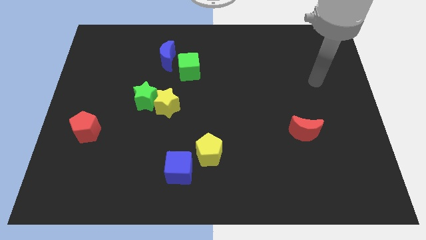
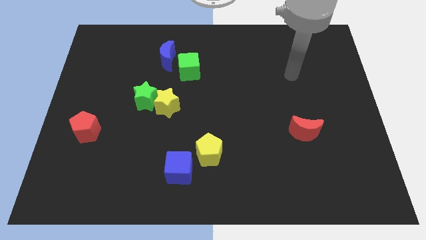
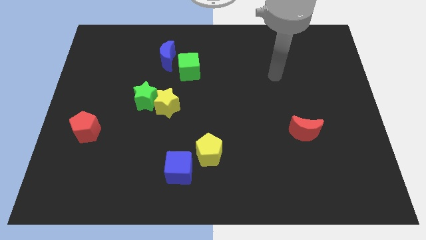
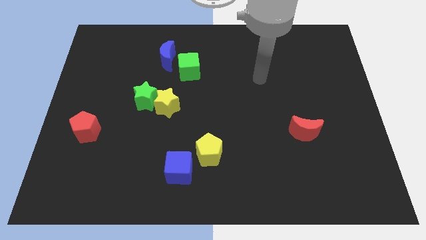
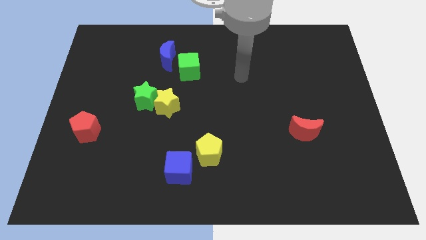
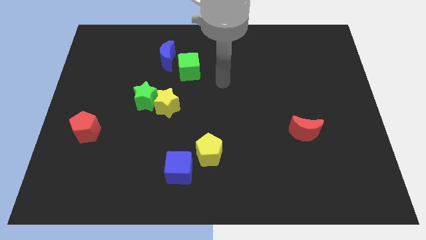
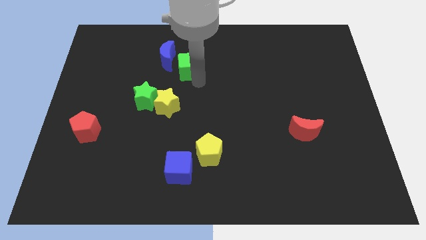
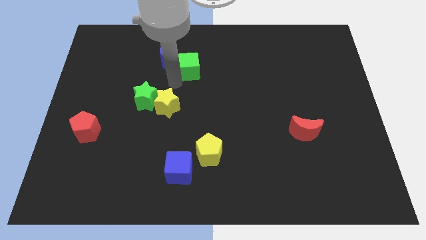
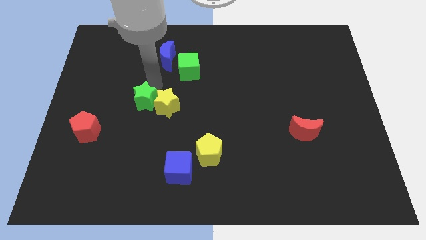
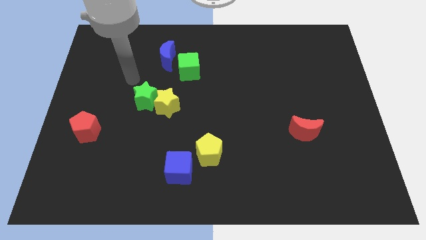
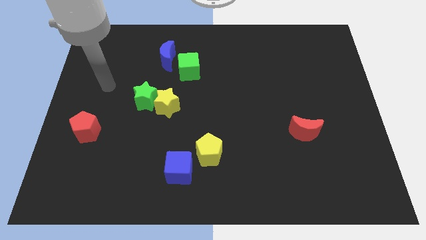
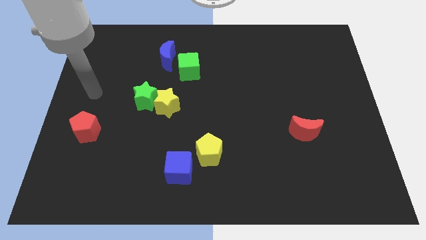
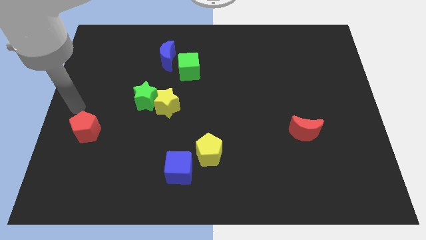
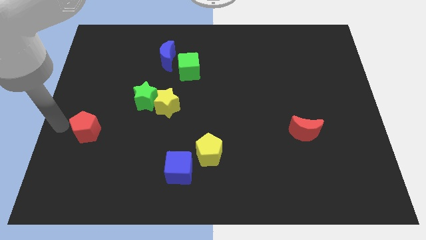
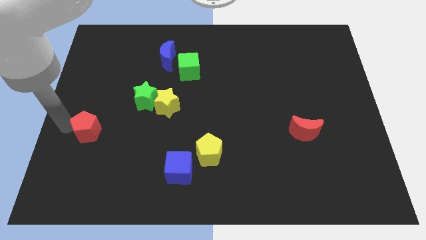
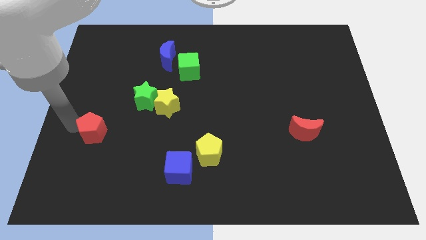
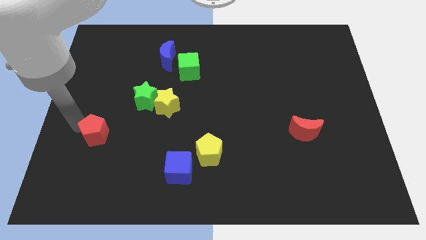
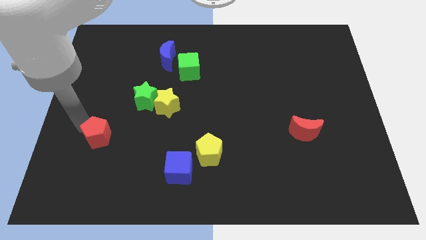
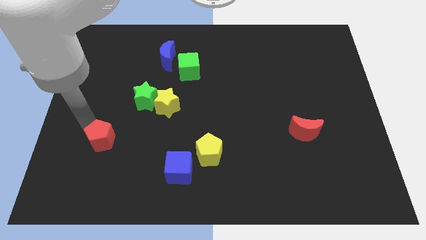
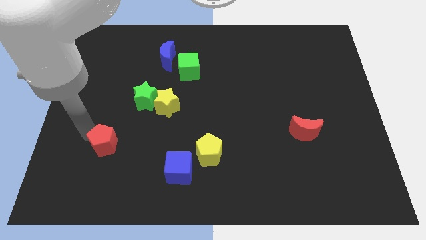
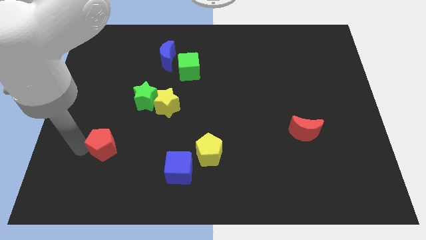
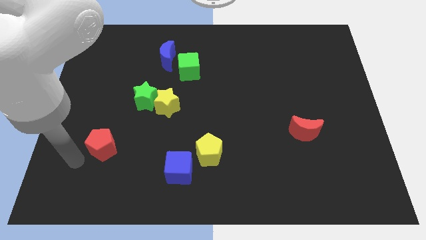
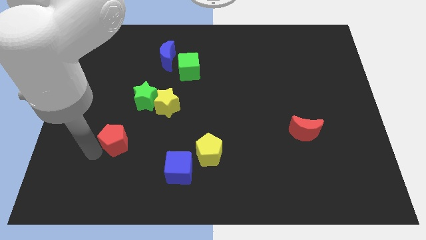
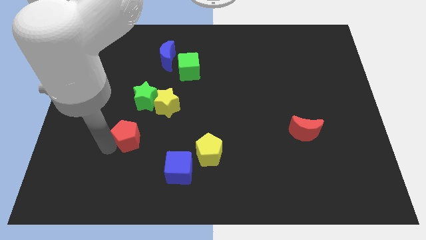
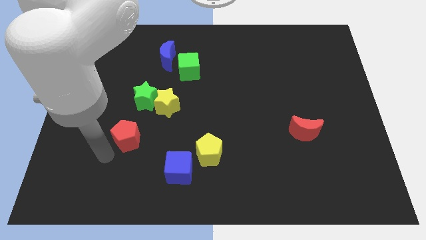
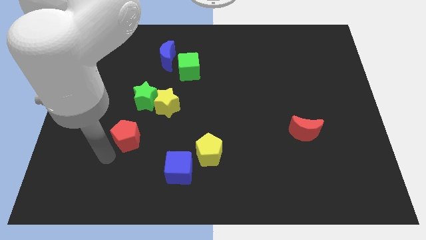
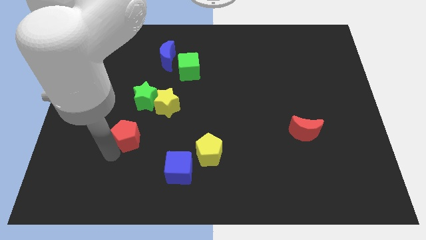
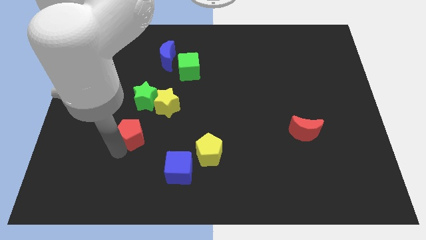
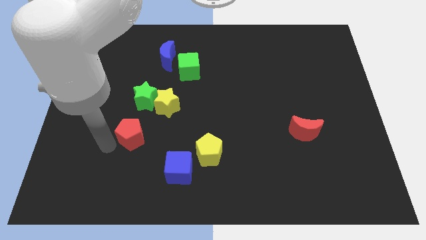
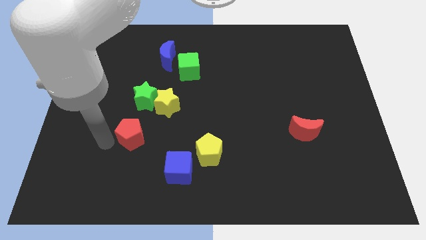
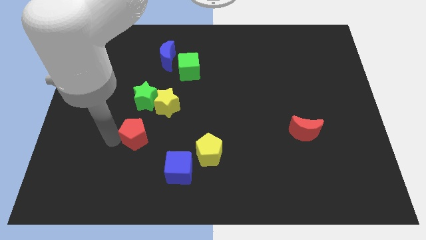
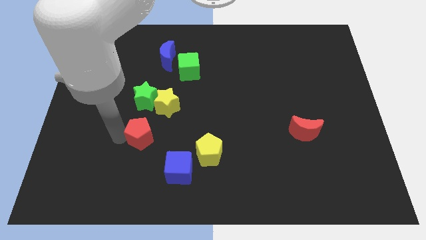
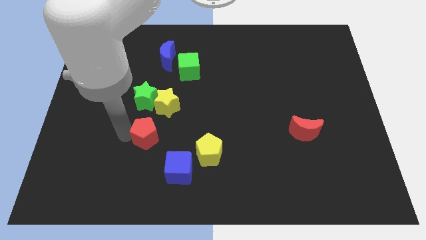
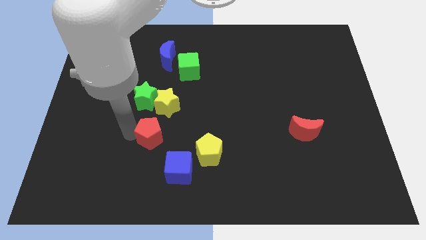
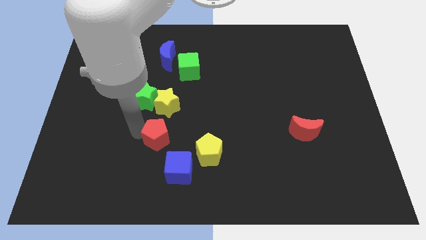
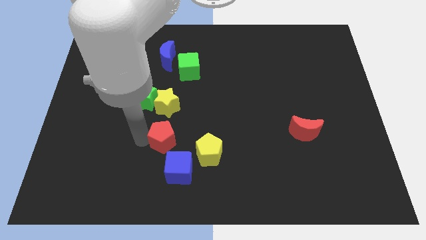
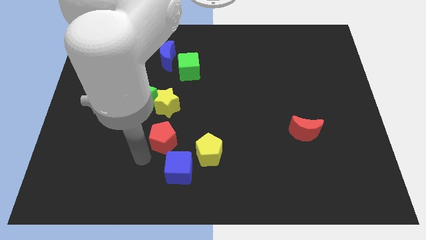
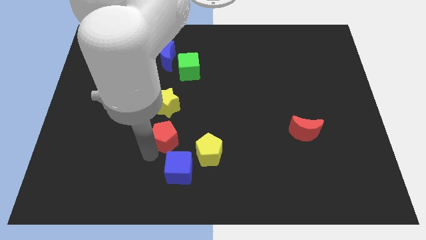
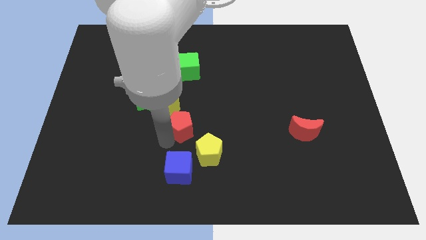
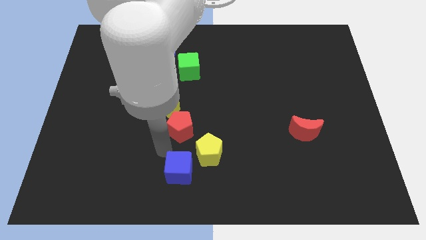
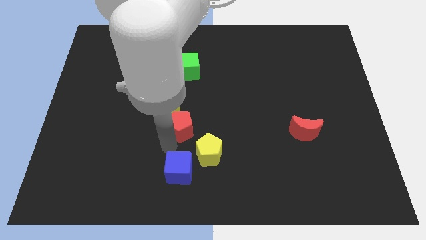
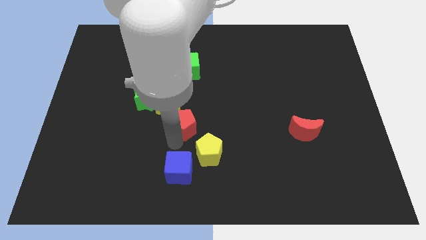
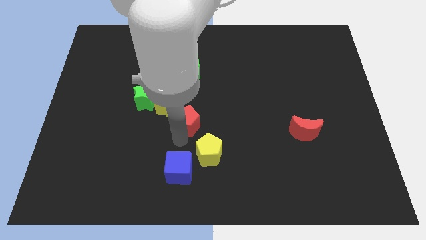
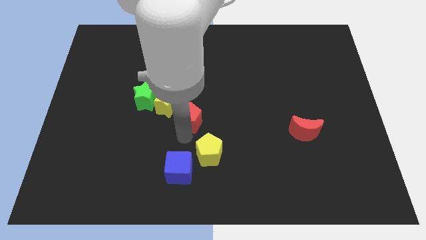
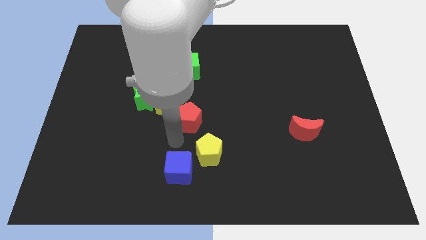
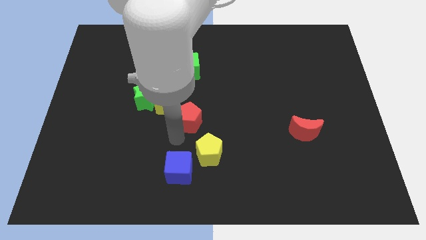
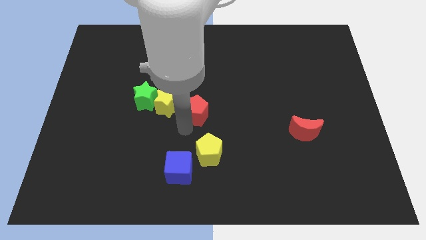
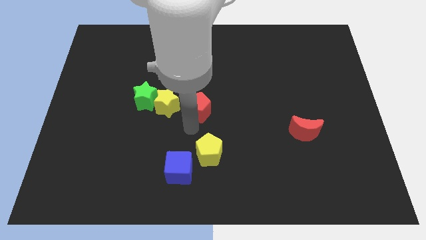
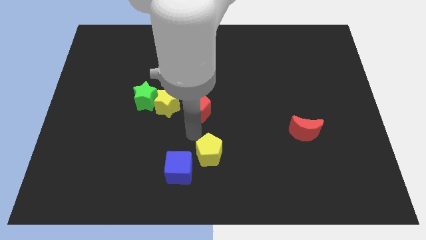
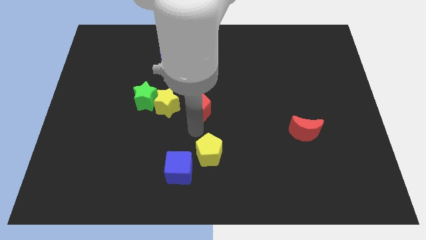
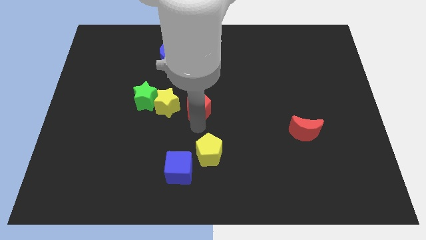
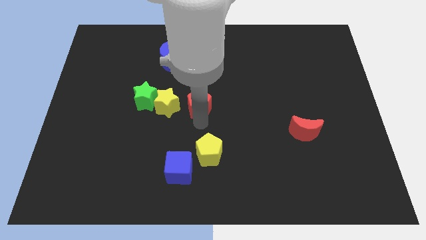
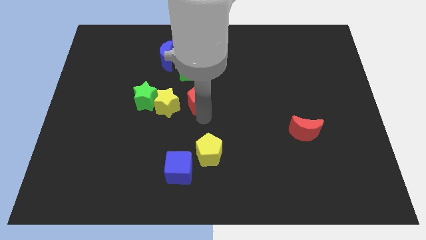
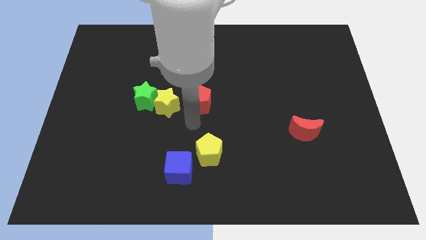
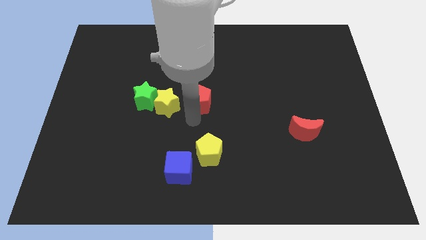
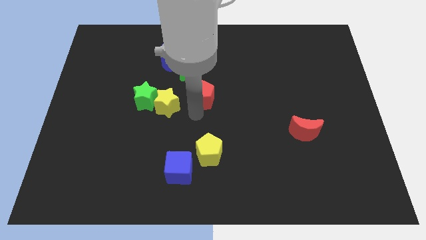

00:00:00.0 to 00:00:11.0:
push the red pentagon diagonally down and to the right of the green cube

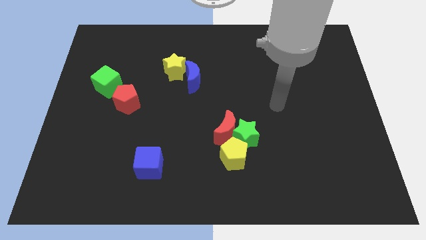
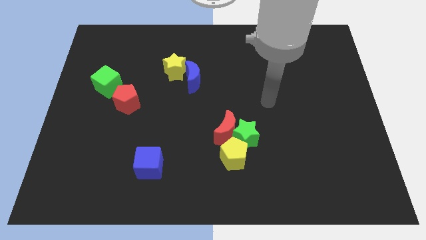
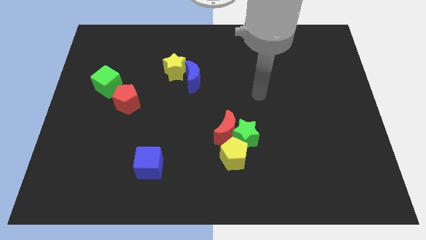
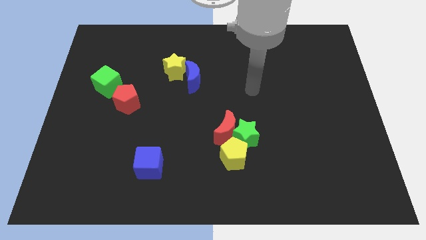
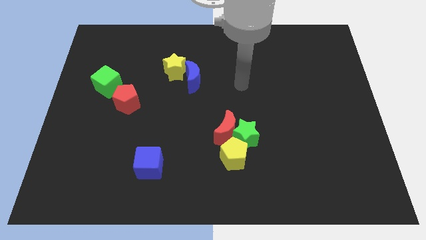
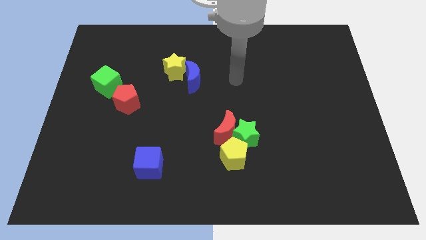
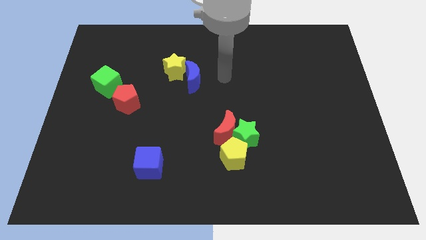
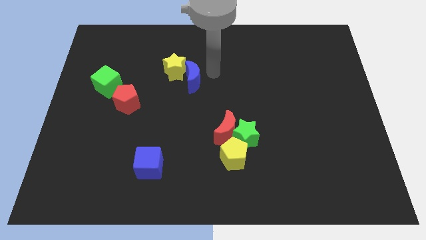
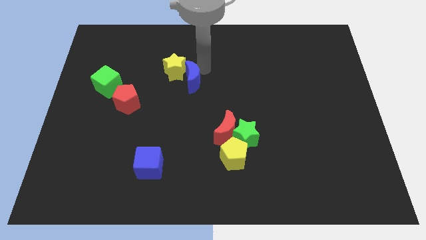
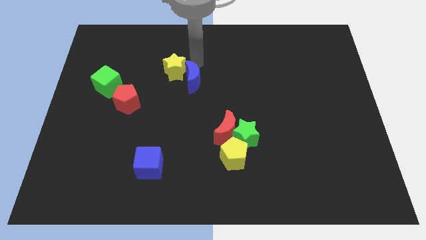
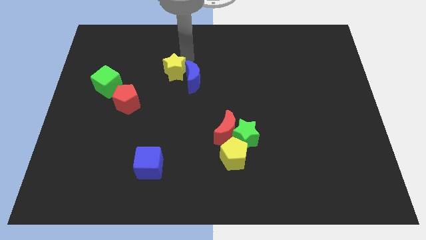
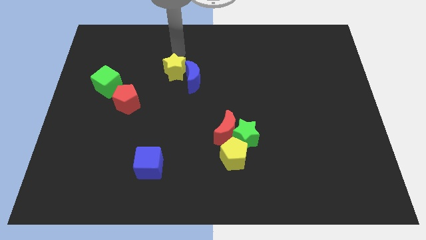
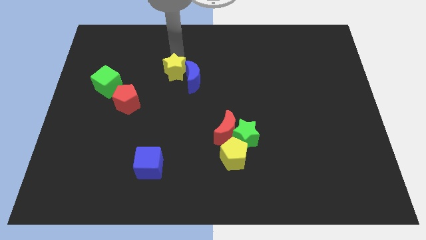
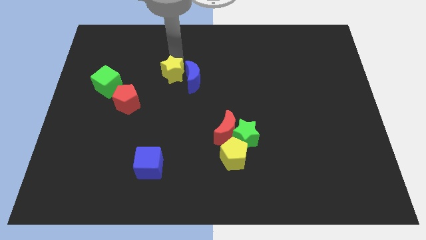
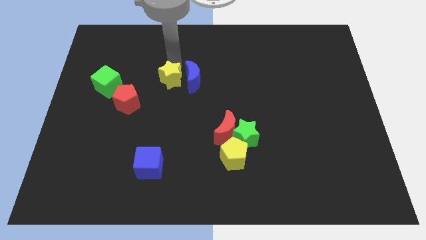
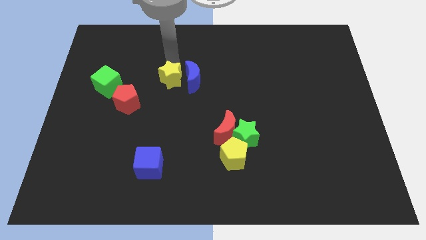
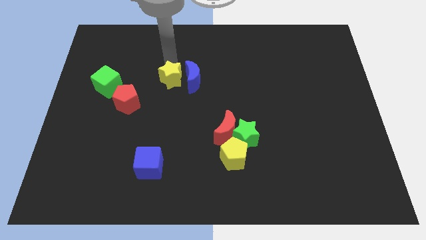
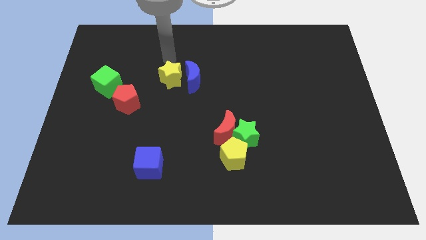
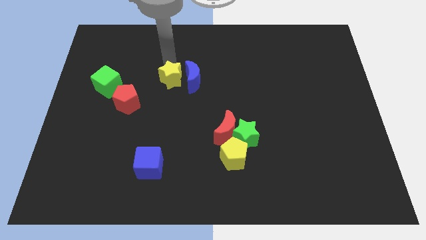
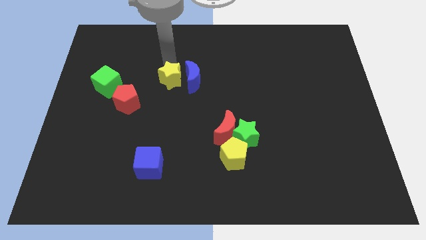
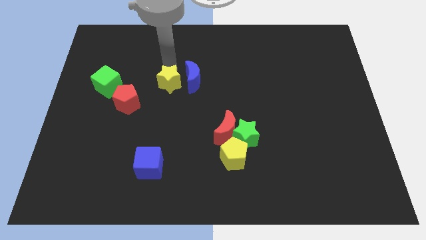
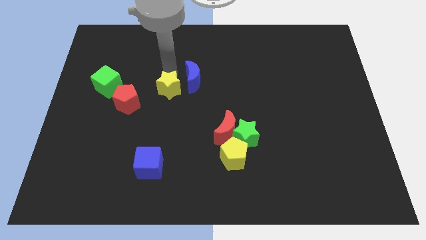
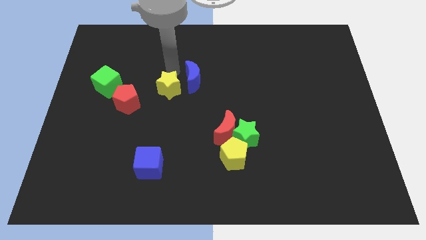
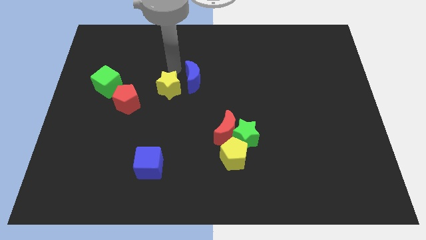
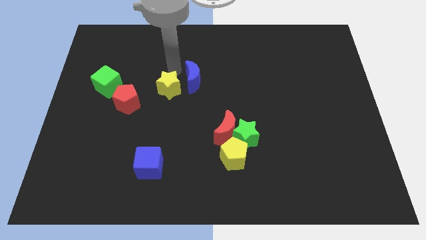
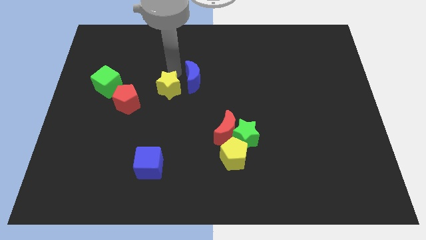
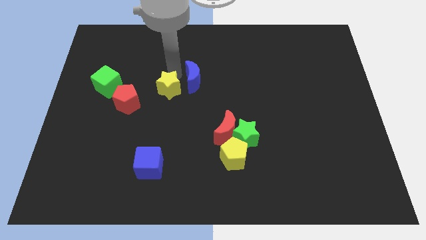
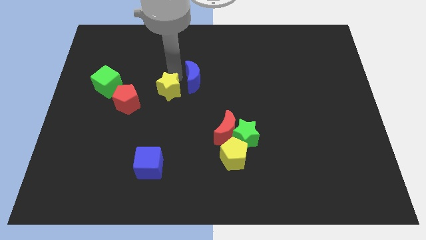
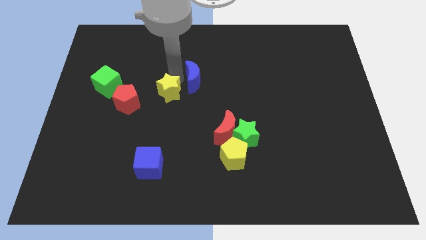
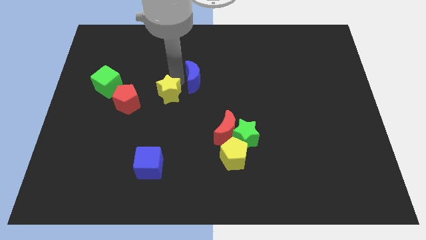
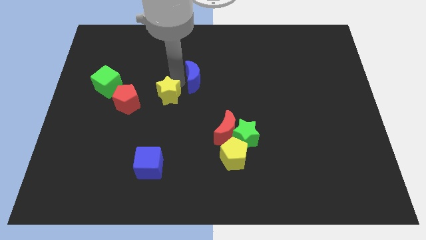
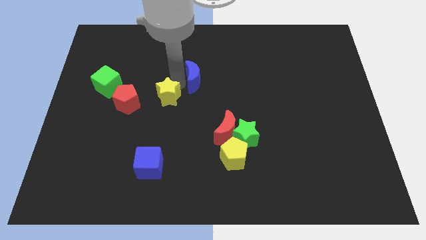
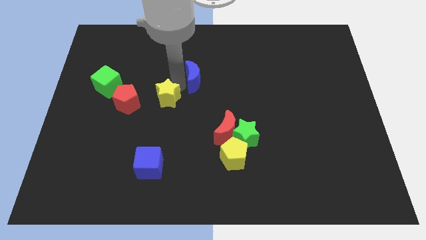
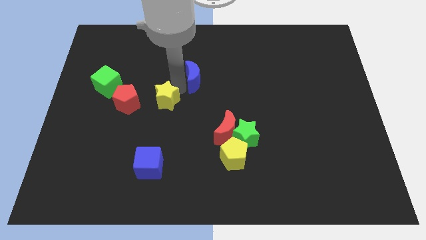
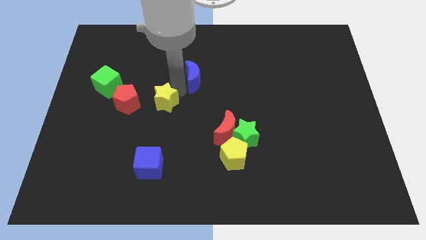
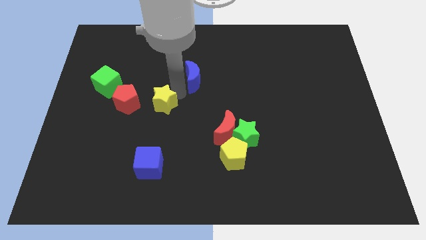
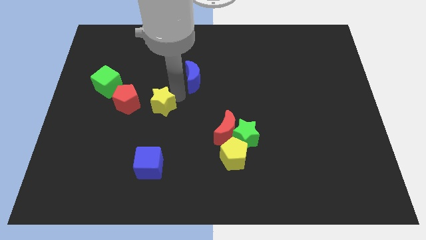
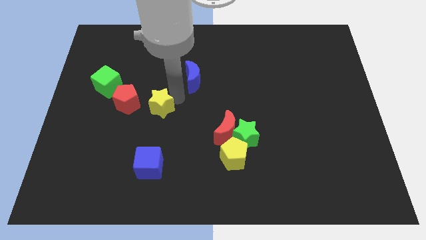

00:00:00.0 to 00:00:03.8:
move the yellow star to the bottom right side of the red pentagon
